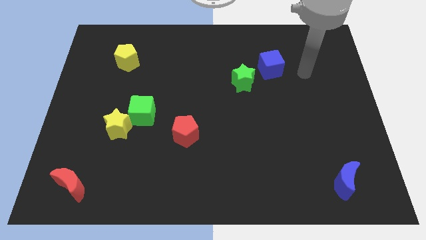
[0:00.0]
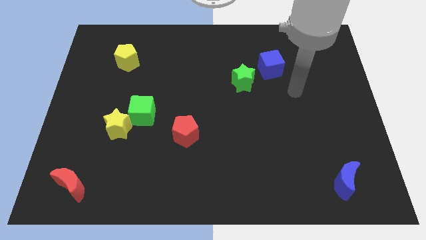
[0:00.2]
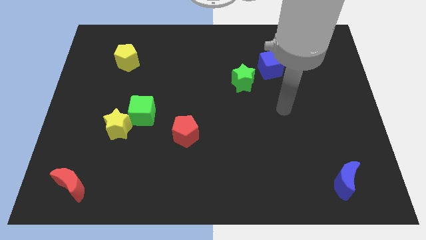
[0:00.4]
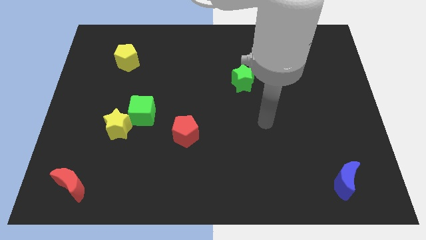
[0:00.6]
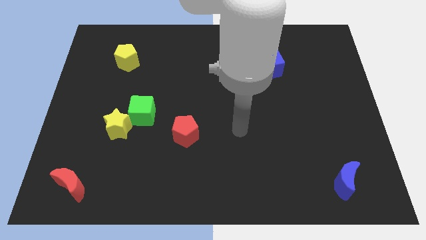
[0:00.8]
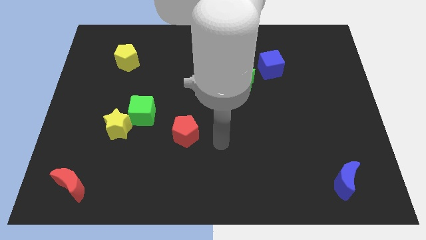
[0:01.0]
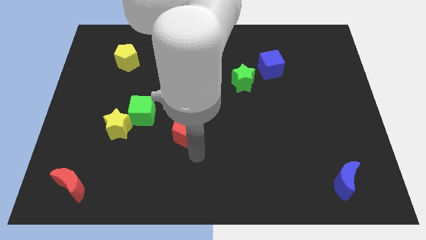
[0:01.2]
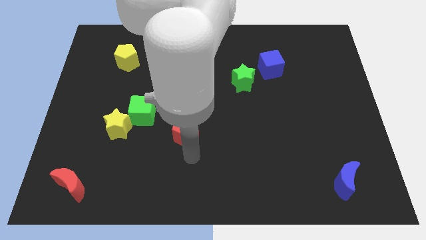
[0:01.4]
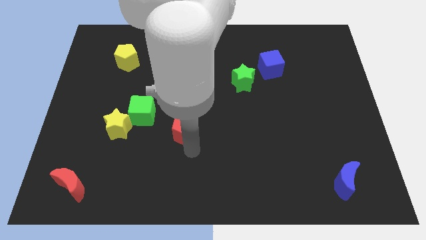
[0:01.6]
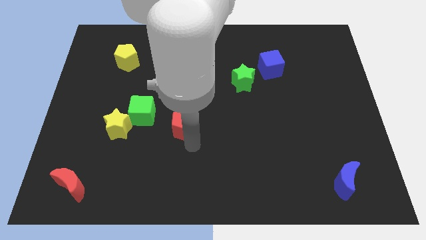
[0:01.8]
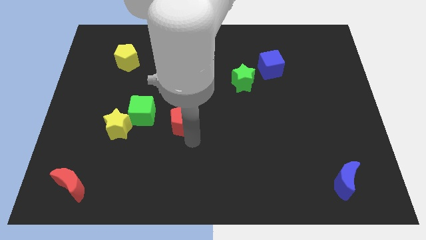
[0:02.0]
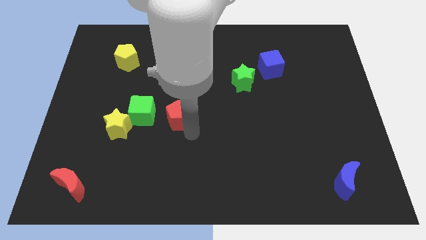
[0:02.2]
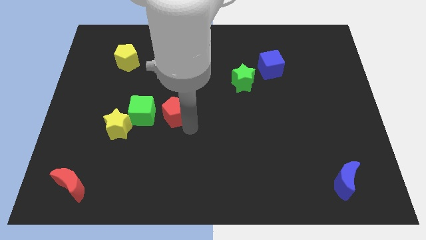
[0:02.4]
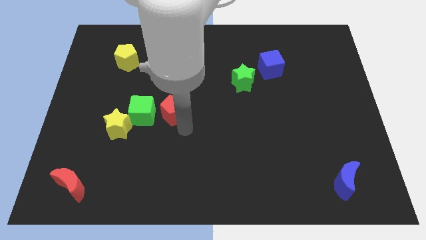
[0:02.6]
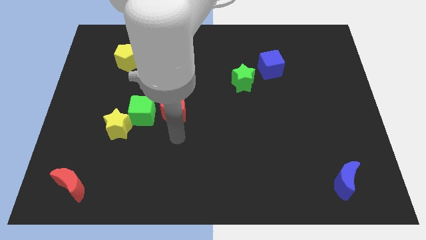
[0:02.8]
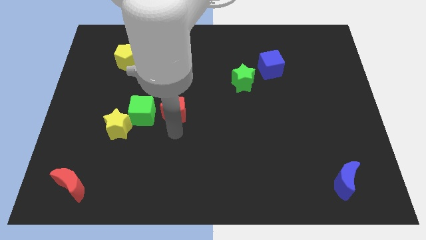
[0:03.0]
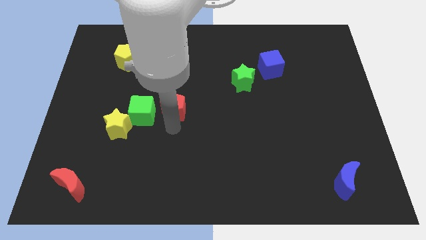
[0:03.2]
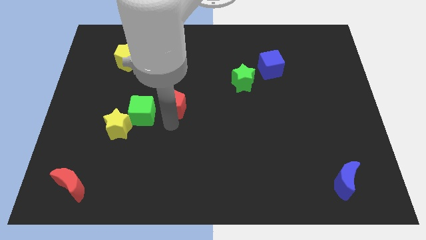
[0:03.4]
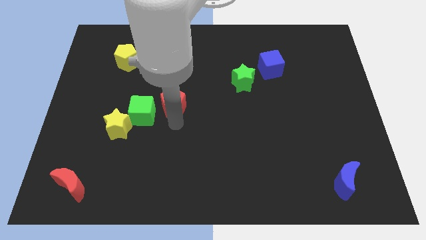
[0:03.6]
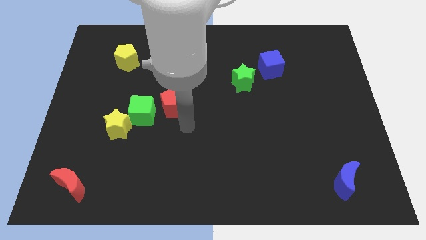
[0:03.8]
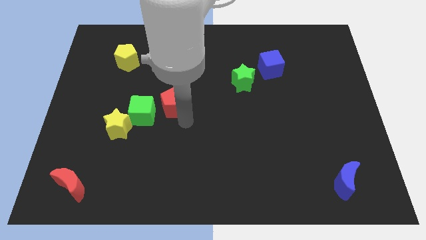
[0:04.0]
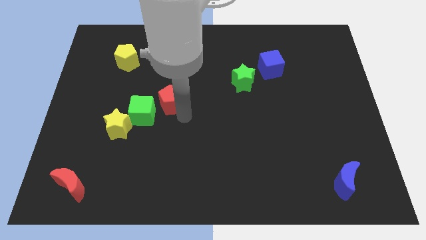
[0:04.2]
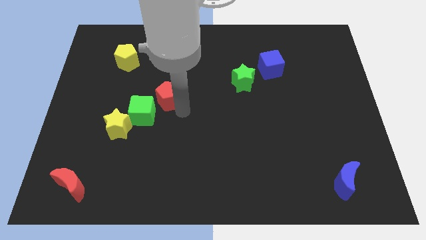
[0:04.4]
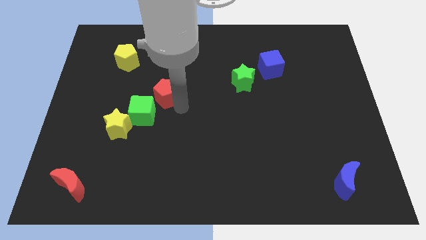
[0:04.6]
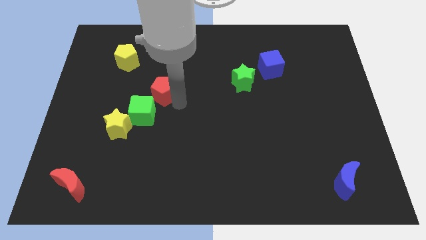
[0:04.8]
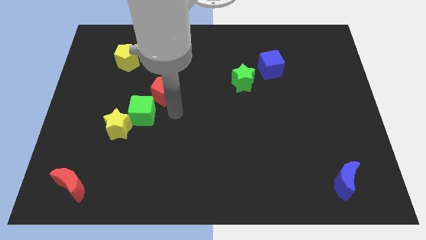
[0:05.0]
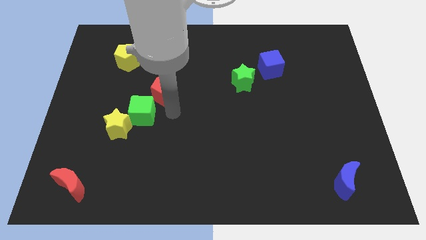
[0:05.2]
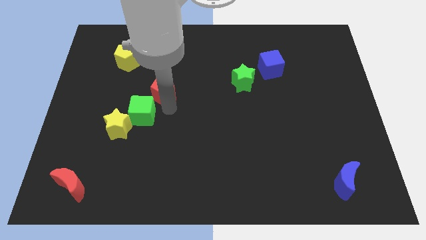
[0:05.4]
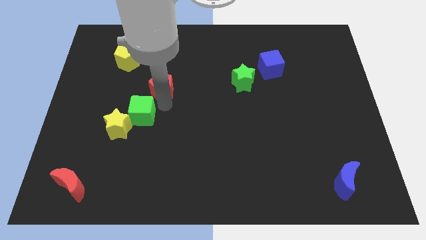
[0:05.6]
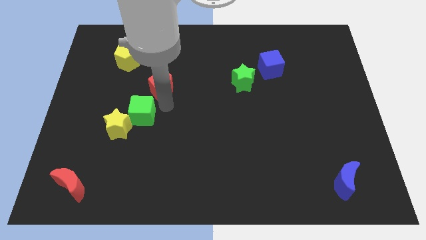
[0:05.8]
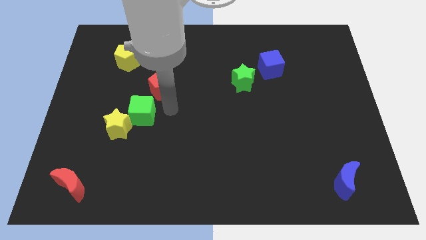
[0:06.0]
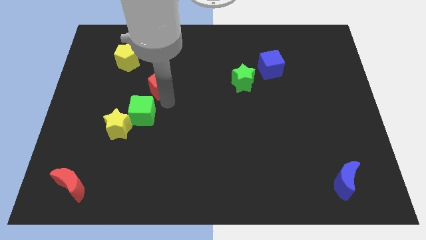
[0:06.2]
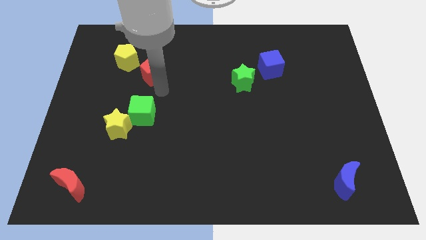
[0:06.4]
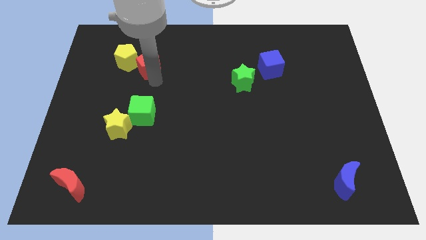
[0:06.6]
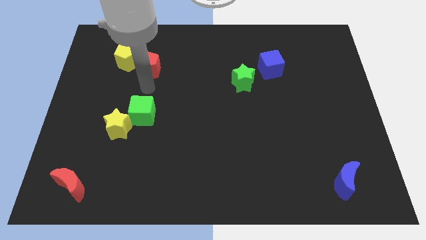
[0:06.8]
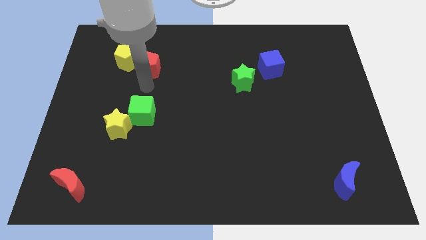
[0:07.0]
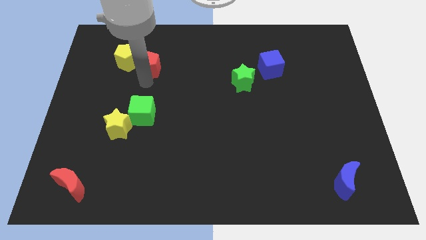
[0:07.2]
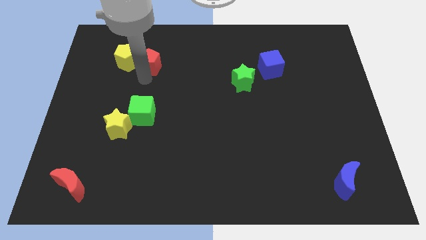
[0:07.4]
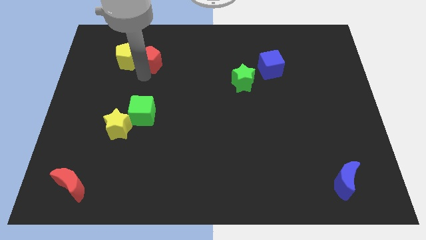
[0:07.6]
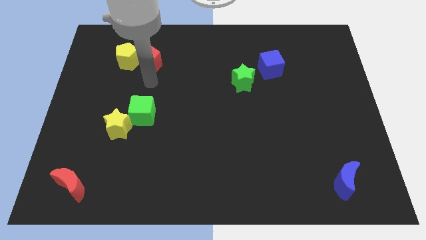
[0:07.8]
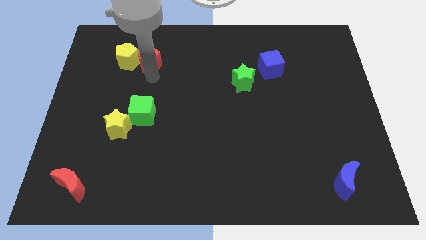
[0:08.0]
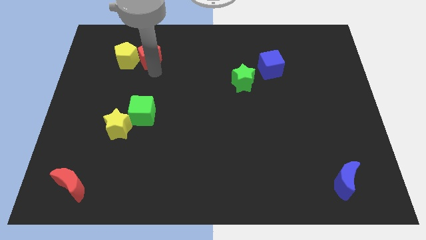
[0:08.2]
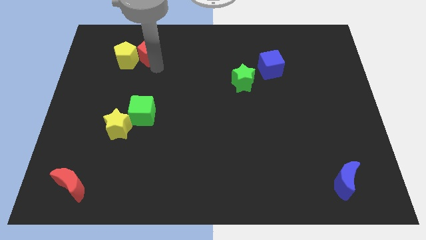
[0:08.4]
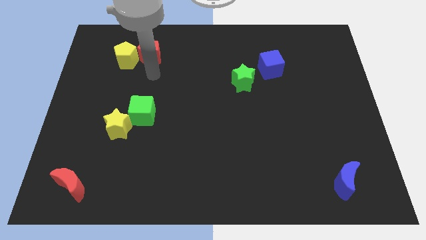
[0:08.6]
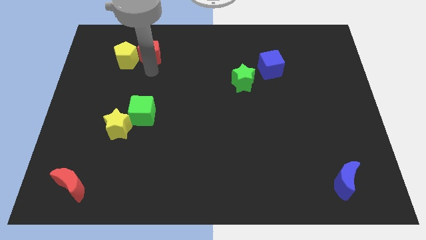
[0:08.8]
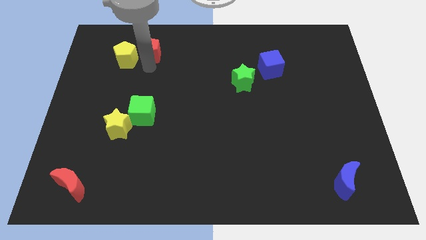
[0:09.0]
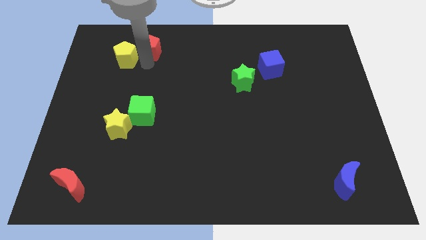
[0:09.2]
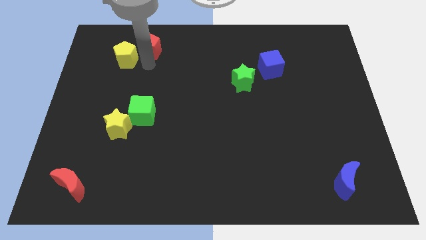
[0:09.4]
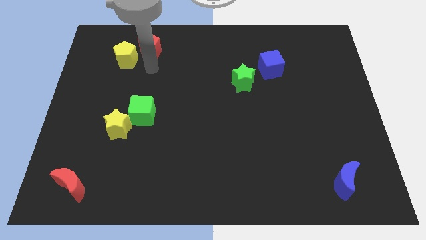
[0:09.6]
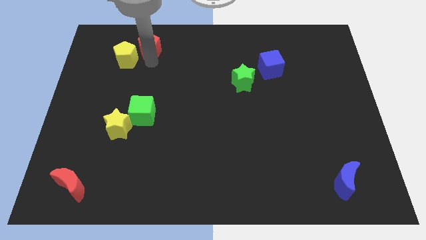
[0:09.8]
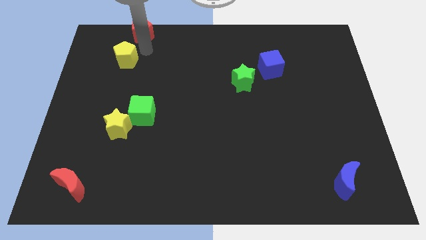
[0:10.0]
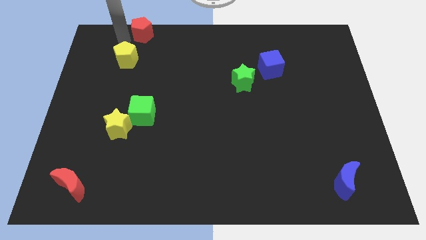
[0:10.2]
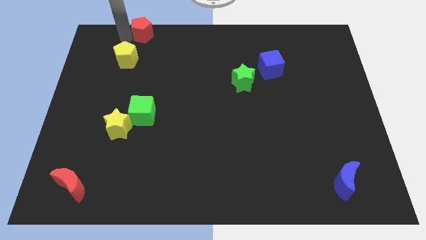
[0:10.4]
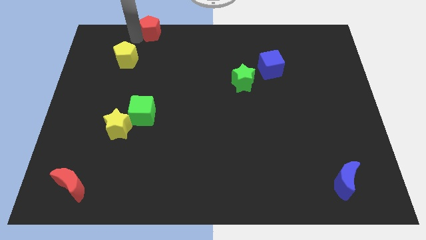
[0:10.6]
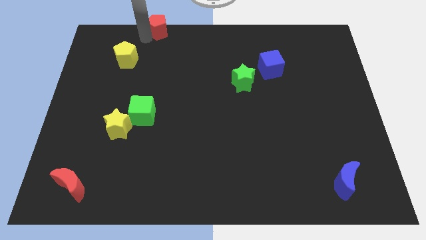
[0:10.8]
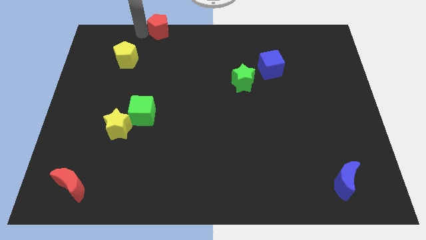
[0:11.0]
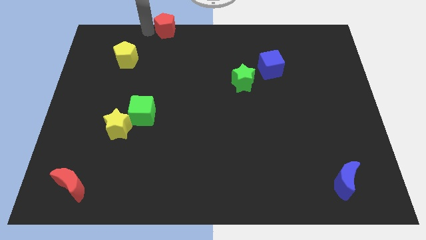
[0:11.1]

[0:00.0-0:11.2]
put the red pentagon to the top

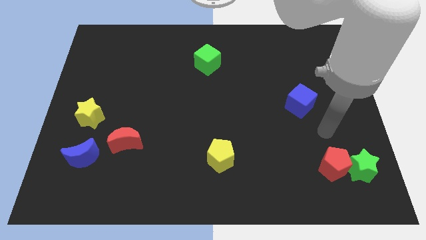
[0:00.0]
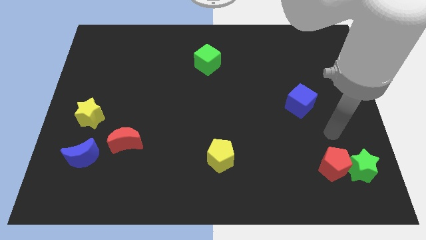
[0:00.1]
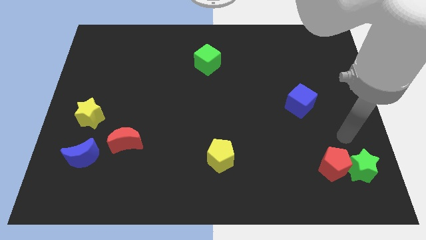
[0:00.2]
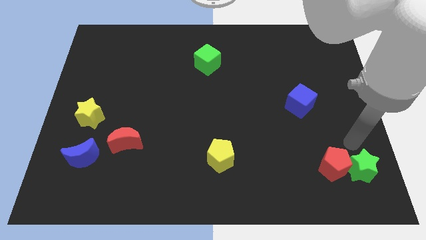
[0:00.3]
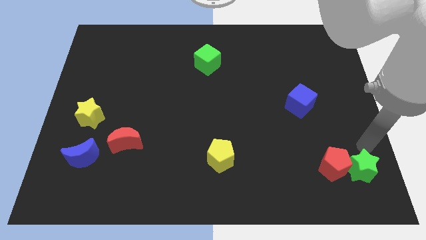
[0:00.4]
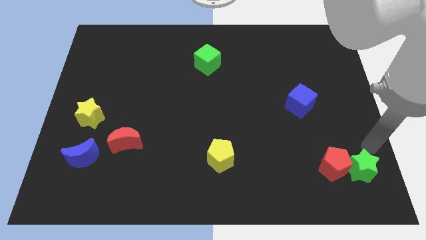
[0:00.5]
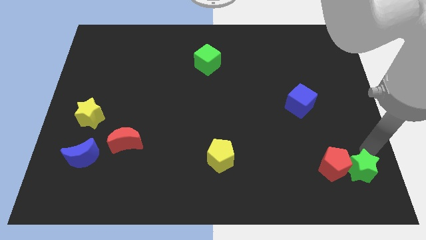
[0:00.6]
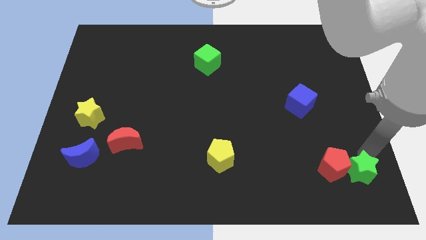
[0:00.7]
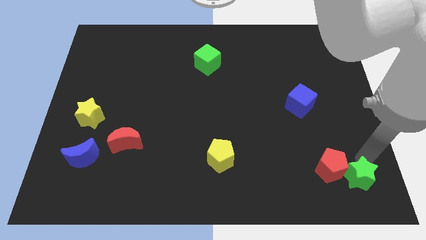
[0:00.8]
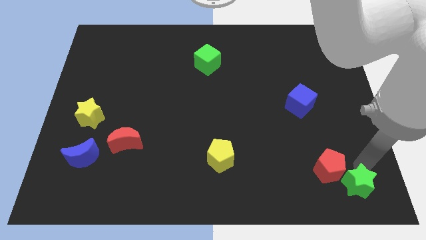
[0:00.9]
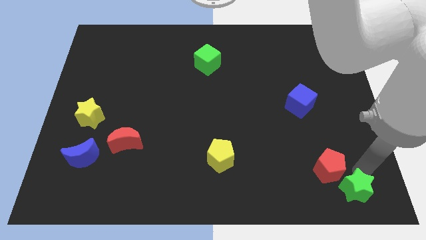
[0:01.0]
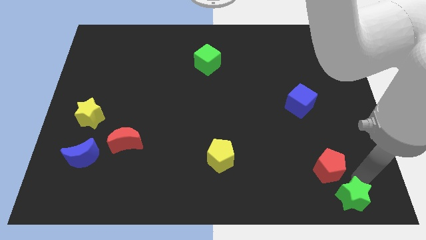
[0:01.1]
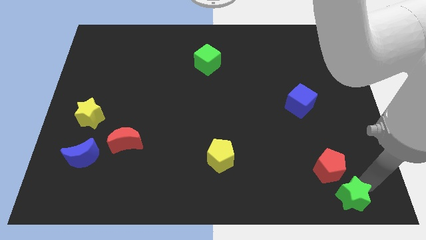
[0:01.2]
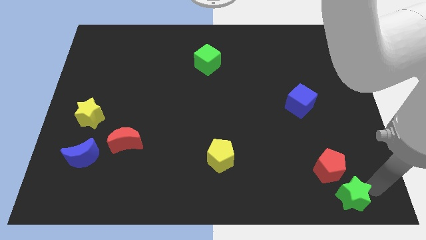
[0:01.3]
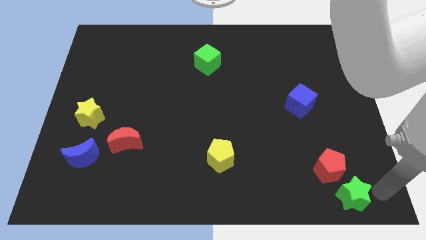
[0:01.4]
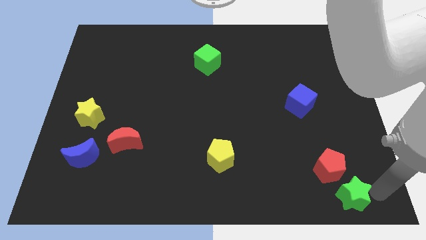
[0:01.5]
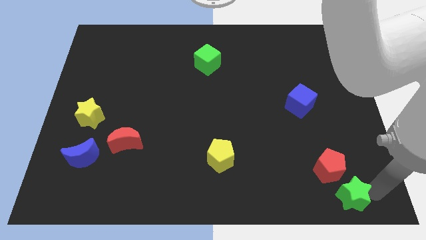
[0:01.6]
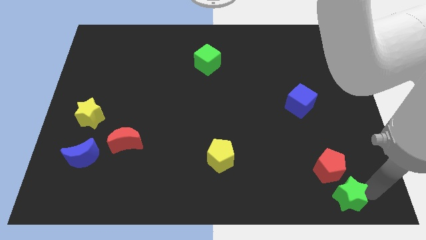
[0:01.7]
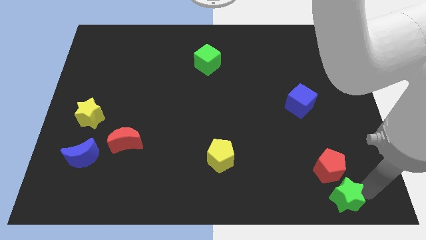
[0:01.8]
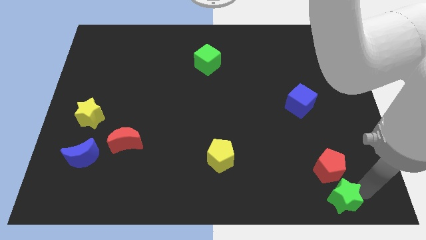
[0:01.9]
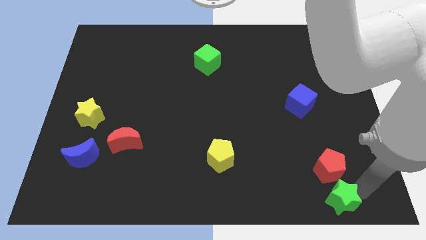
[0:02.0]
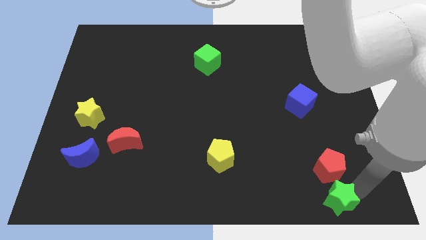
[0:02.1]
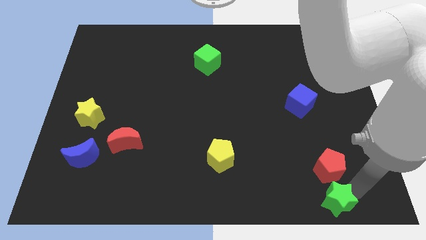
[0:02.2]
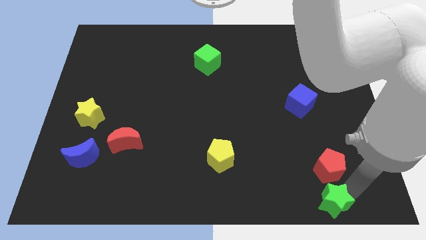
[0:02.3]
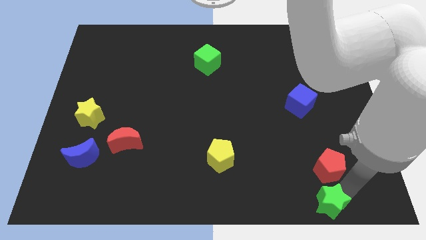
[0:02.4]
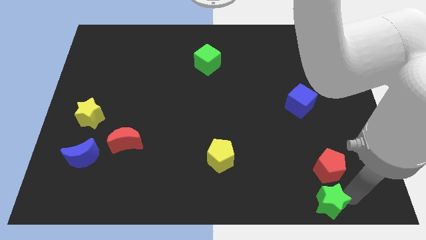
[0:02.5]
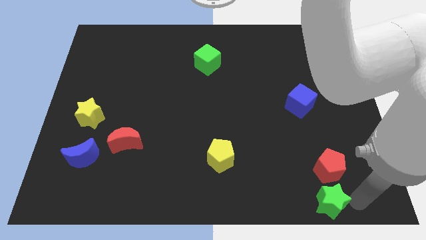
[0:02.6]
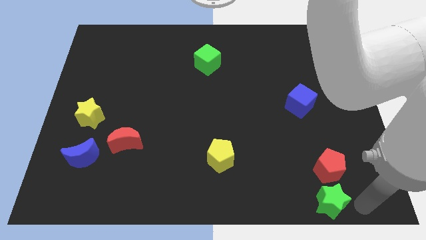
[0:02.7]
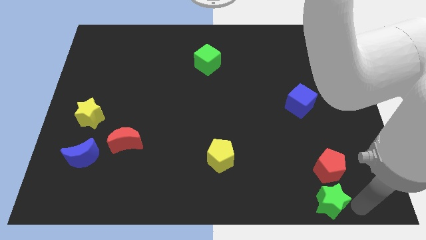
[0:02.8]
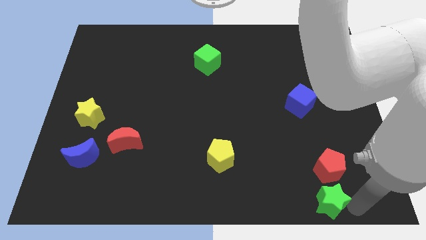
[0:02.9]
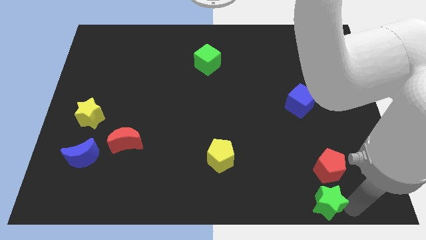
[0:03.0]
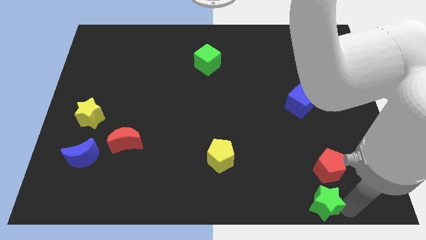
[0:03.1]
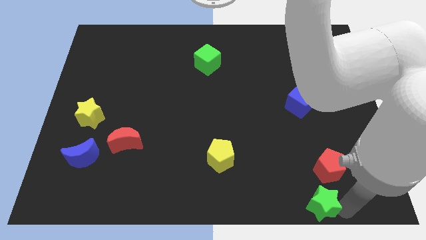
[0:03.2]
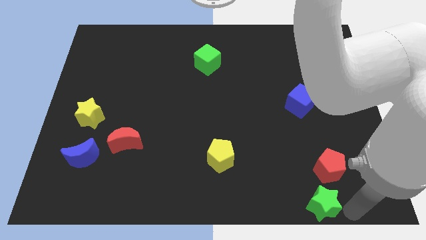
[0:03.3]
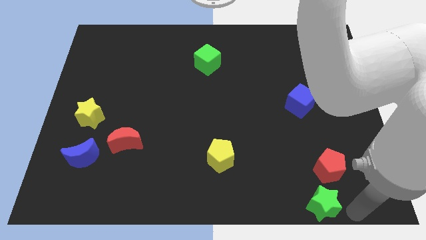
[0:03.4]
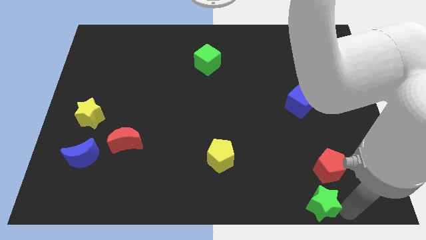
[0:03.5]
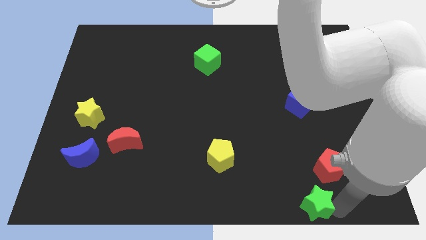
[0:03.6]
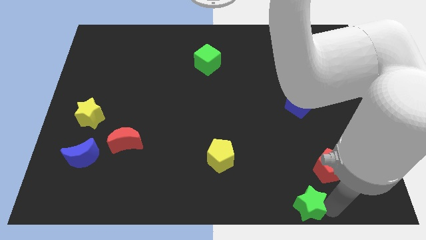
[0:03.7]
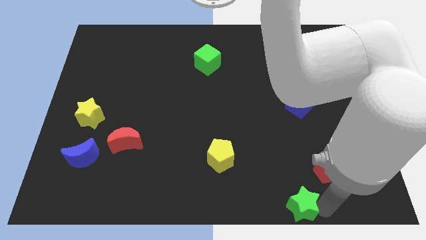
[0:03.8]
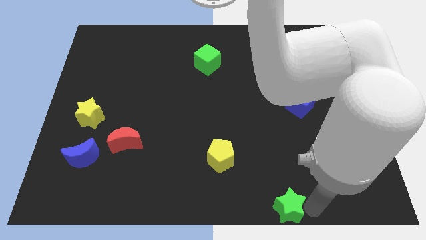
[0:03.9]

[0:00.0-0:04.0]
push the green star to the bottom
